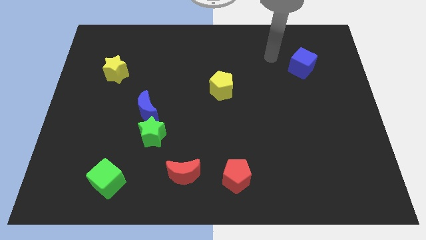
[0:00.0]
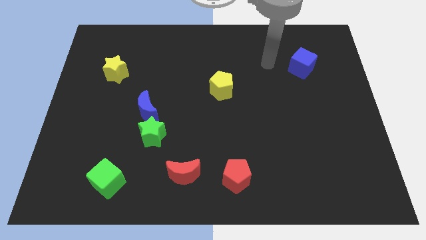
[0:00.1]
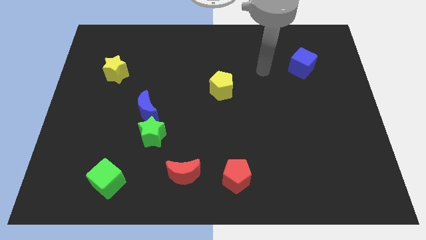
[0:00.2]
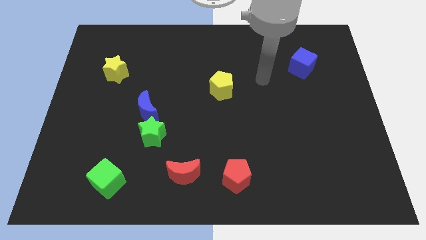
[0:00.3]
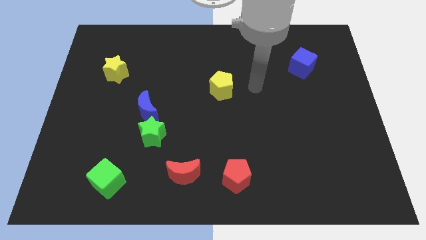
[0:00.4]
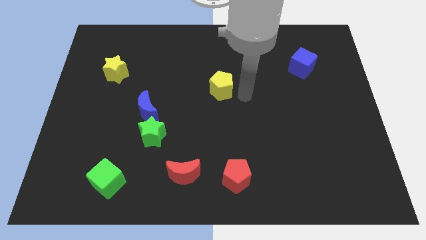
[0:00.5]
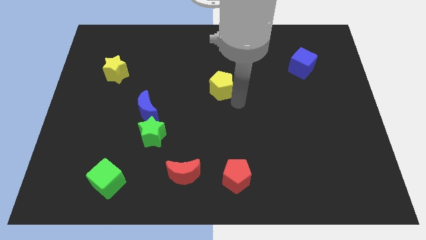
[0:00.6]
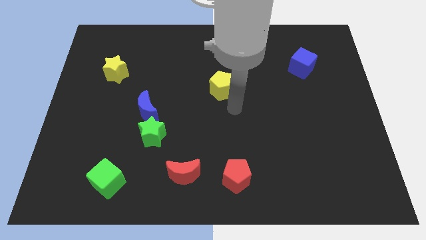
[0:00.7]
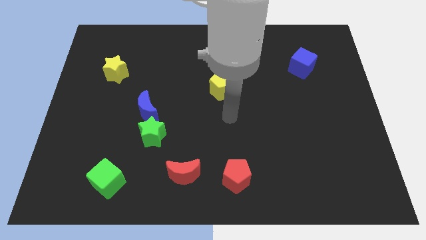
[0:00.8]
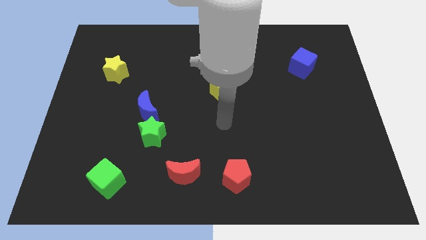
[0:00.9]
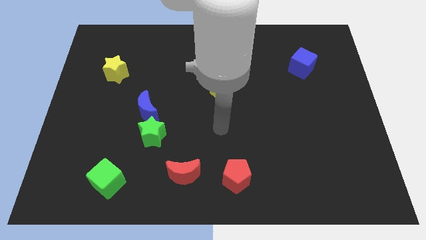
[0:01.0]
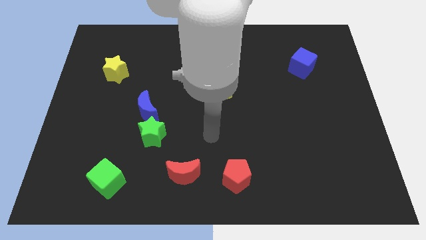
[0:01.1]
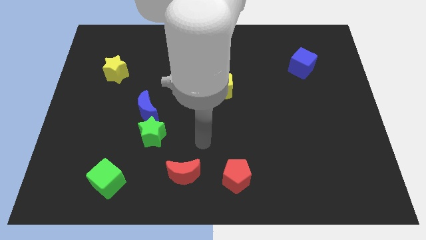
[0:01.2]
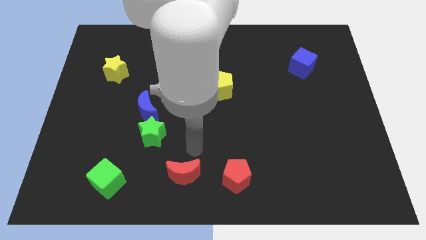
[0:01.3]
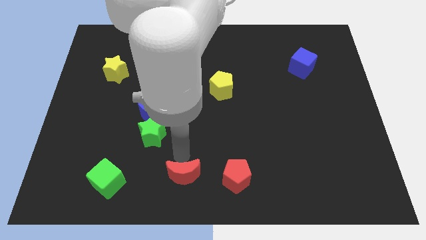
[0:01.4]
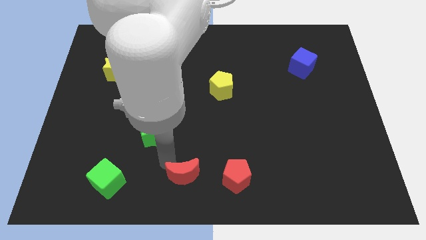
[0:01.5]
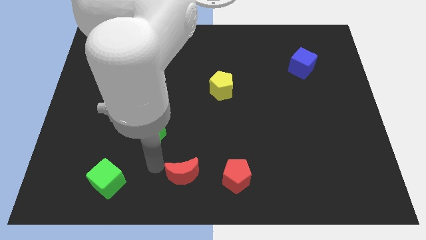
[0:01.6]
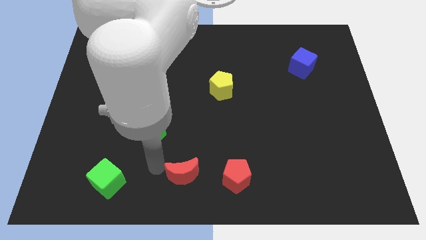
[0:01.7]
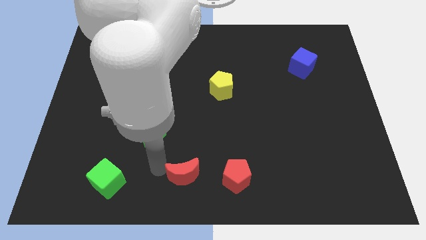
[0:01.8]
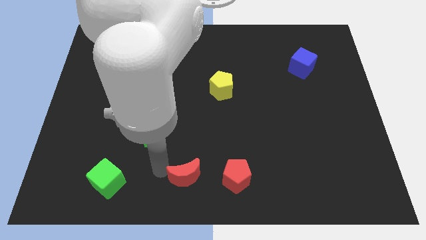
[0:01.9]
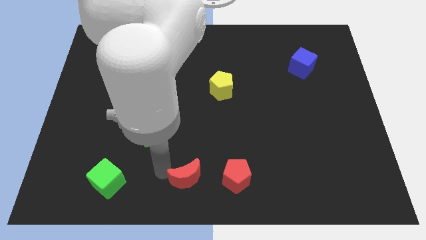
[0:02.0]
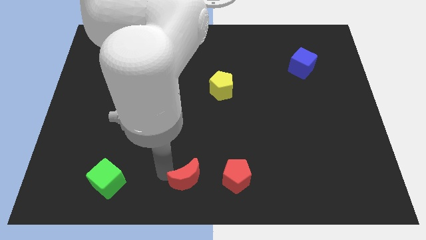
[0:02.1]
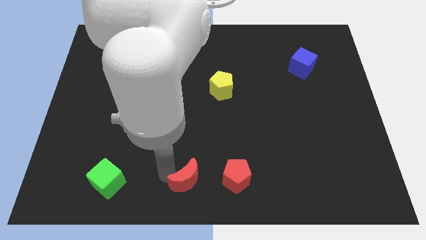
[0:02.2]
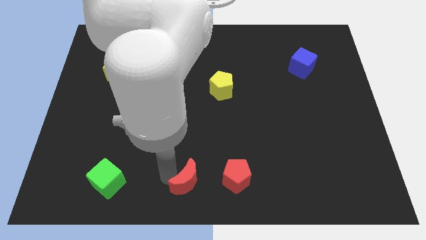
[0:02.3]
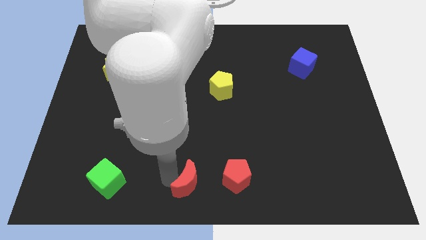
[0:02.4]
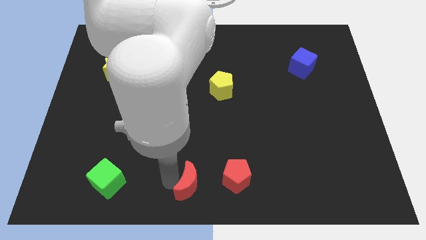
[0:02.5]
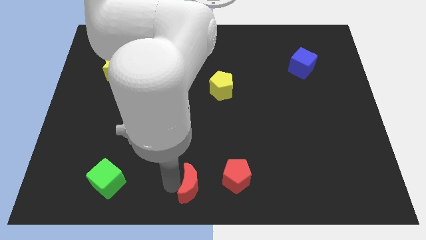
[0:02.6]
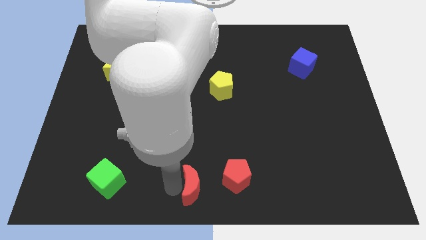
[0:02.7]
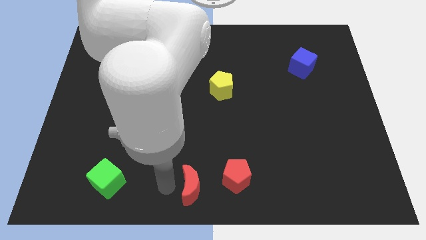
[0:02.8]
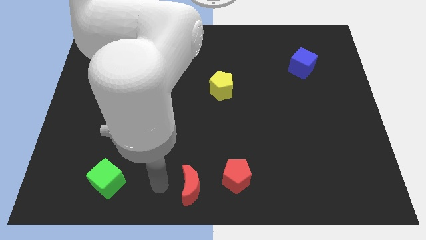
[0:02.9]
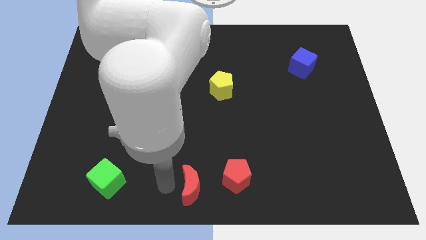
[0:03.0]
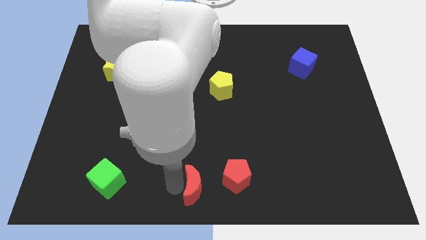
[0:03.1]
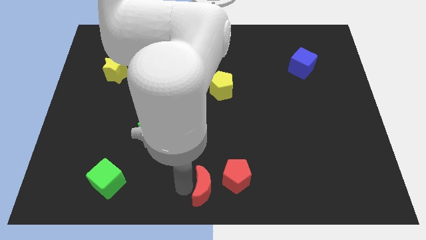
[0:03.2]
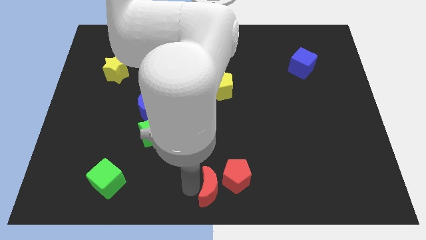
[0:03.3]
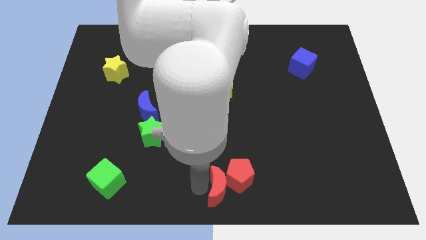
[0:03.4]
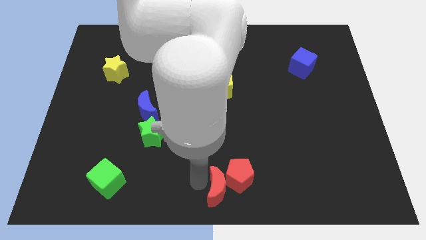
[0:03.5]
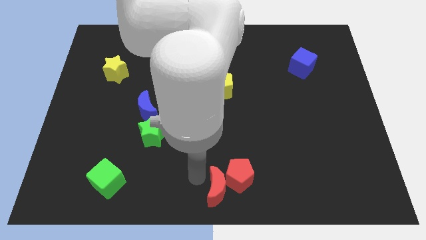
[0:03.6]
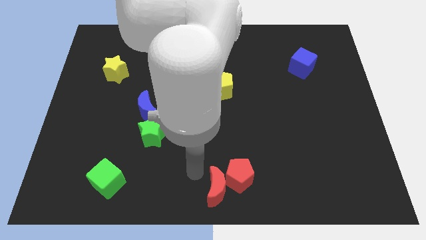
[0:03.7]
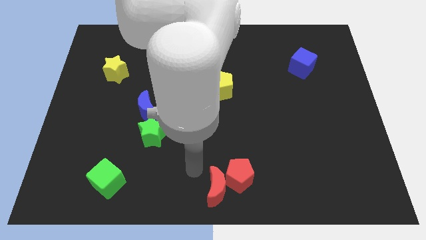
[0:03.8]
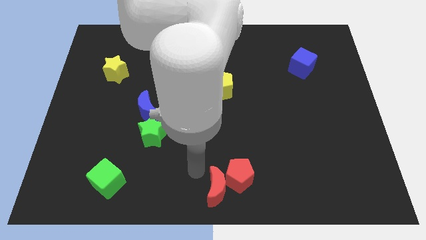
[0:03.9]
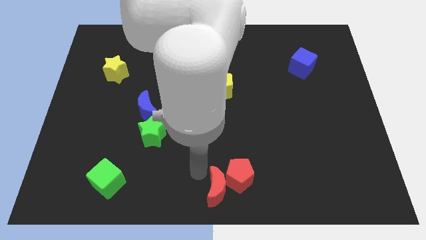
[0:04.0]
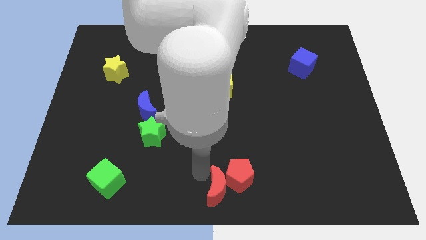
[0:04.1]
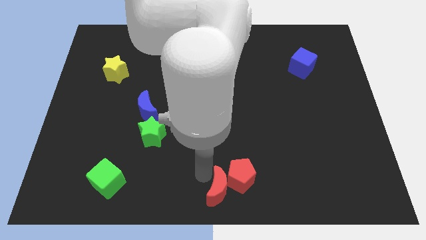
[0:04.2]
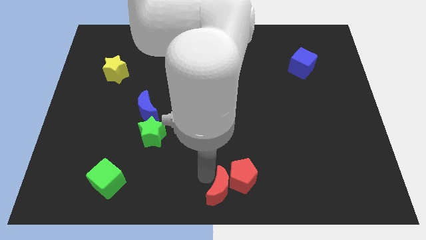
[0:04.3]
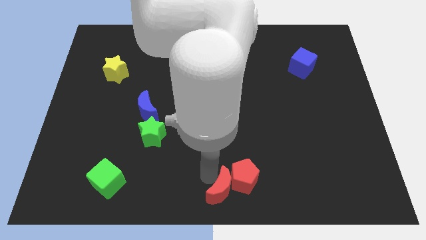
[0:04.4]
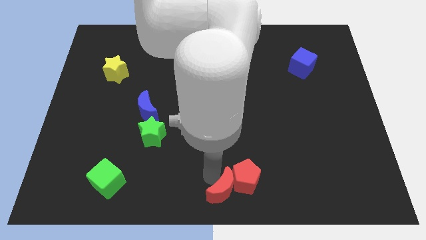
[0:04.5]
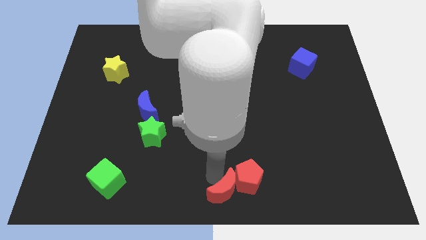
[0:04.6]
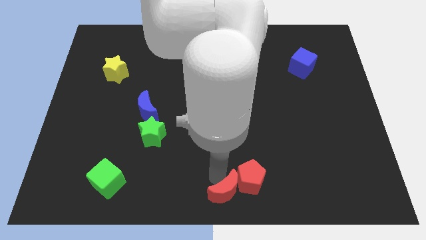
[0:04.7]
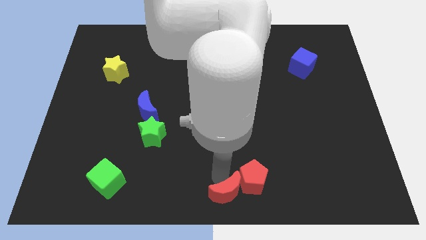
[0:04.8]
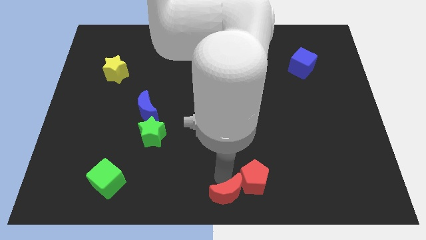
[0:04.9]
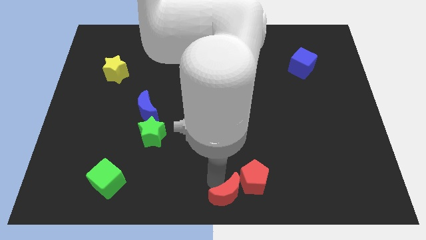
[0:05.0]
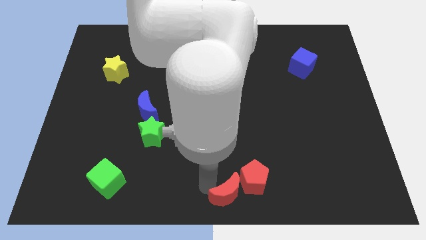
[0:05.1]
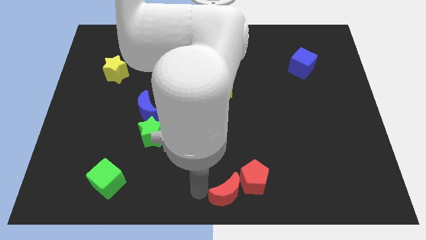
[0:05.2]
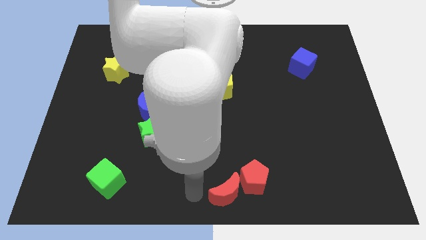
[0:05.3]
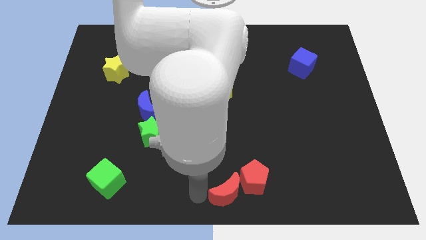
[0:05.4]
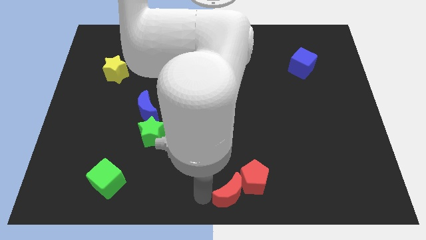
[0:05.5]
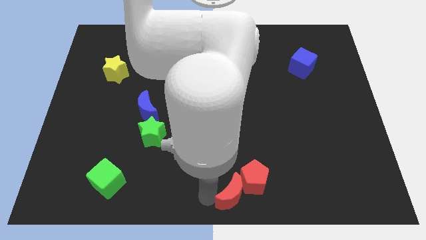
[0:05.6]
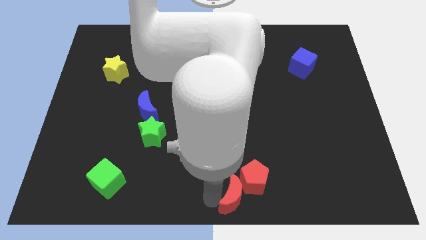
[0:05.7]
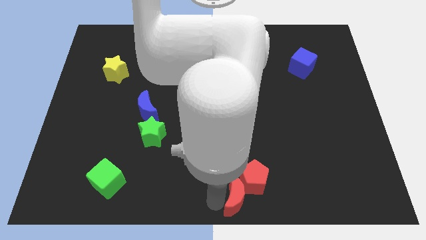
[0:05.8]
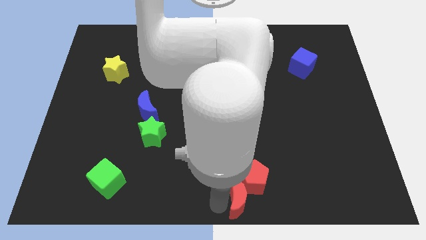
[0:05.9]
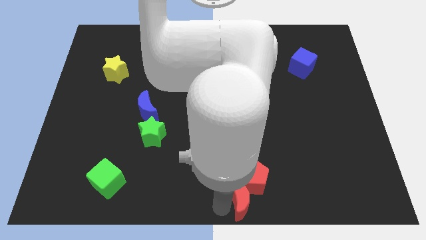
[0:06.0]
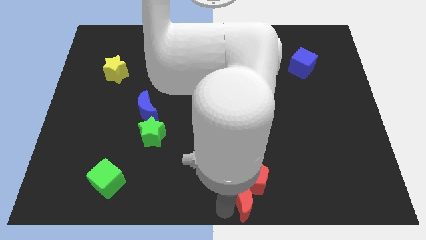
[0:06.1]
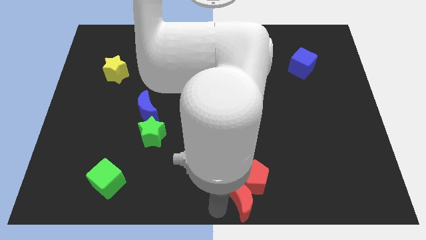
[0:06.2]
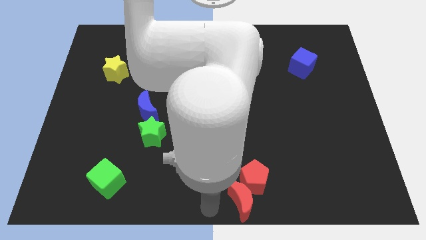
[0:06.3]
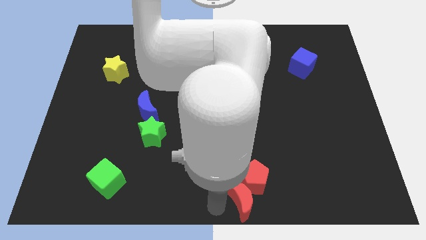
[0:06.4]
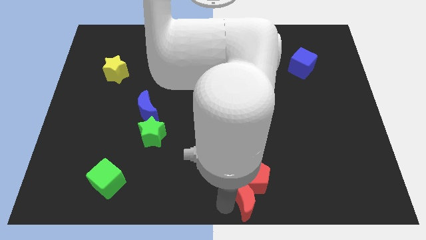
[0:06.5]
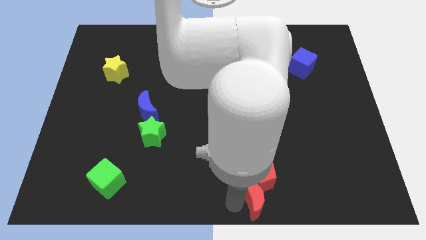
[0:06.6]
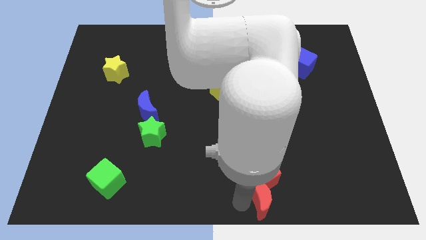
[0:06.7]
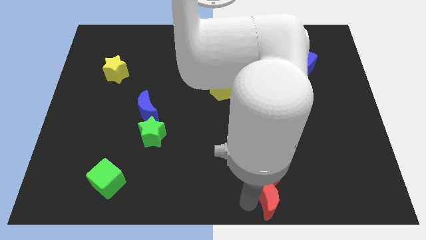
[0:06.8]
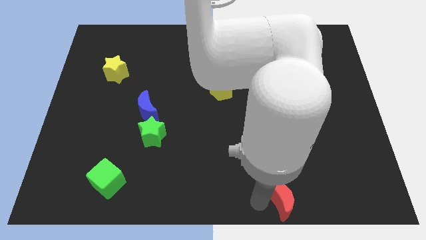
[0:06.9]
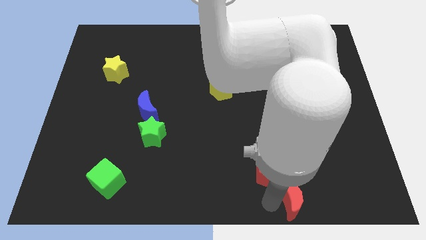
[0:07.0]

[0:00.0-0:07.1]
slide the red moon right

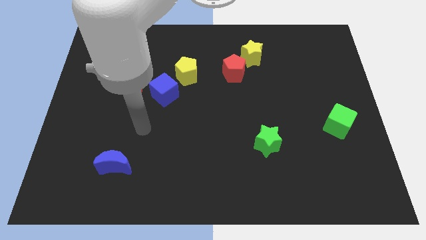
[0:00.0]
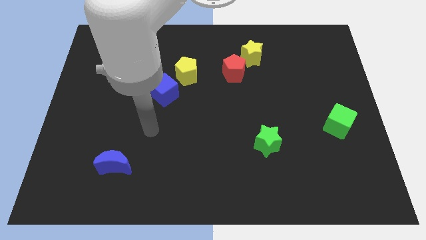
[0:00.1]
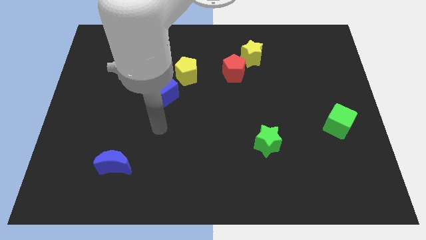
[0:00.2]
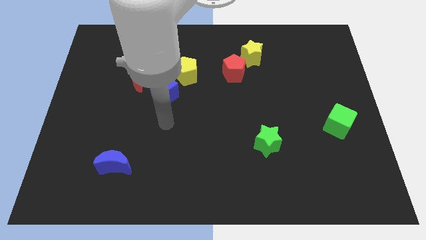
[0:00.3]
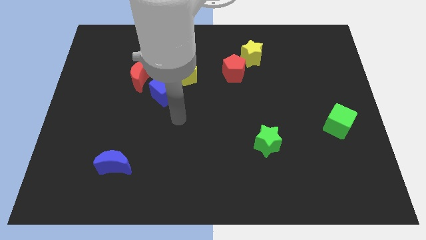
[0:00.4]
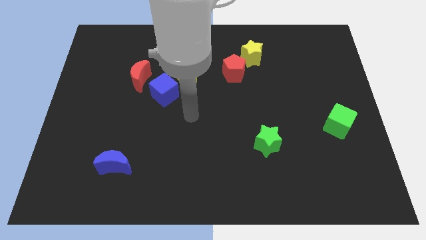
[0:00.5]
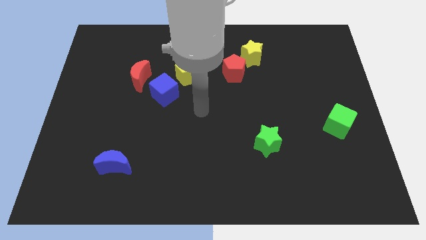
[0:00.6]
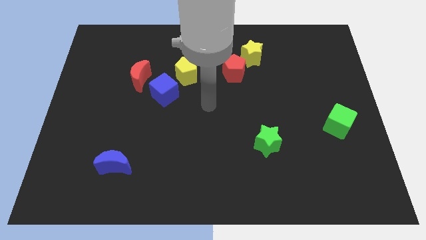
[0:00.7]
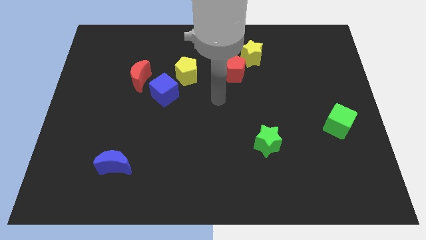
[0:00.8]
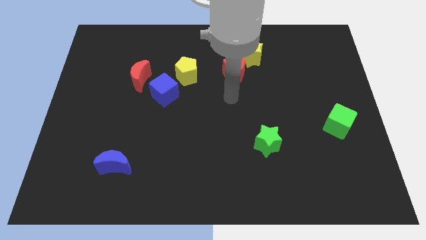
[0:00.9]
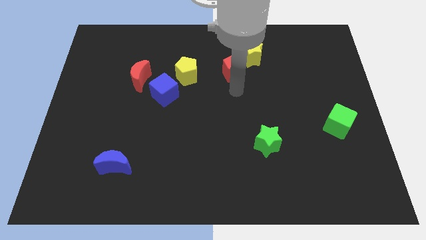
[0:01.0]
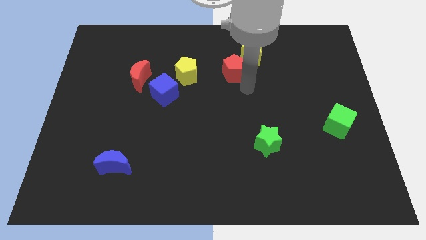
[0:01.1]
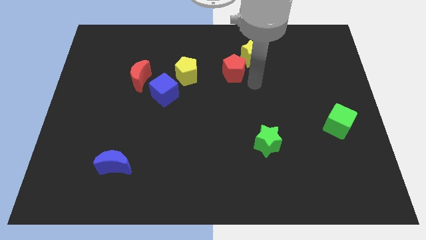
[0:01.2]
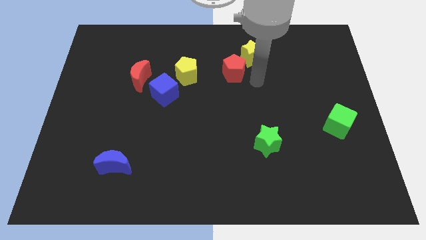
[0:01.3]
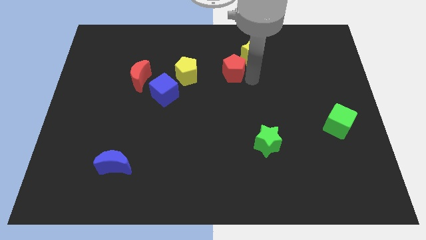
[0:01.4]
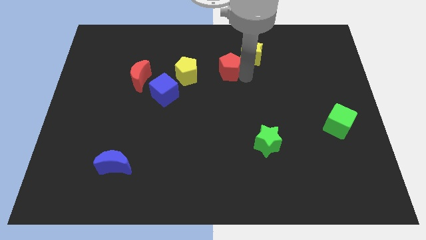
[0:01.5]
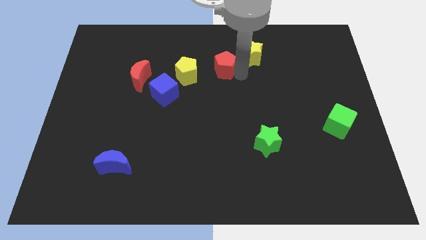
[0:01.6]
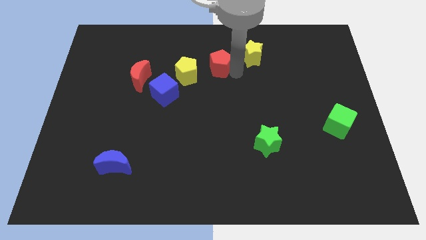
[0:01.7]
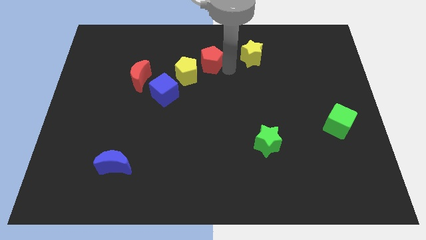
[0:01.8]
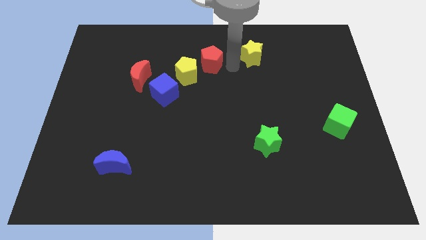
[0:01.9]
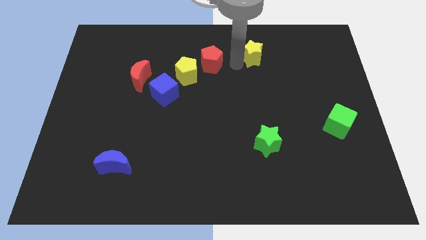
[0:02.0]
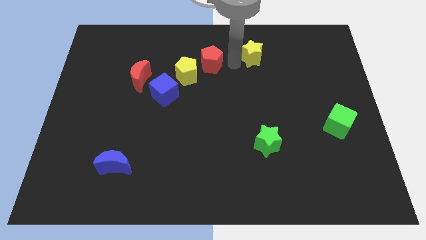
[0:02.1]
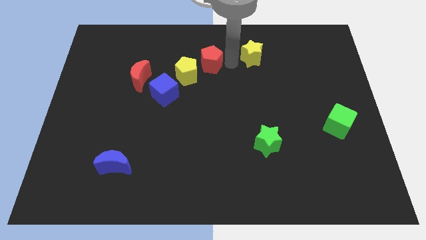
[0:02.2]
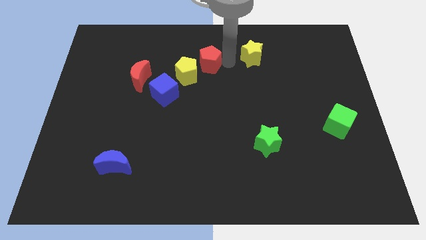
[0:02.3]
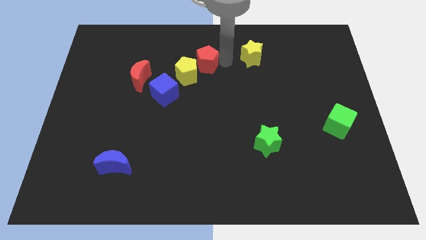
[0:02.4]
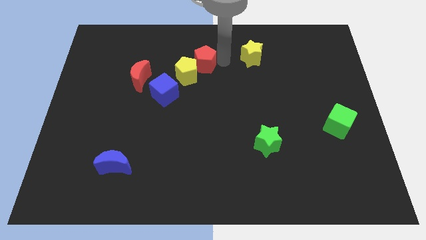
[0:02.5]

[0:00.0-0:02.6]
slide the red pentagon left a little
